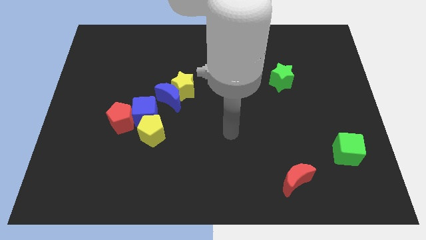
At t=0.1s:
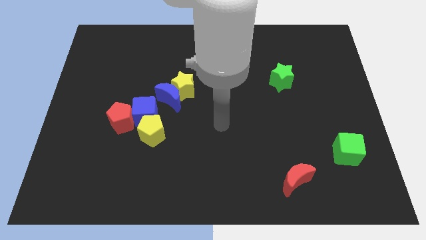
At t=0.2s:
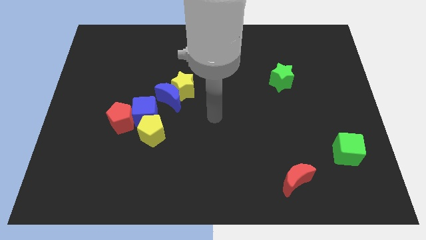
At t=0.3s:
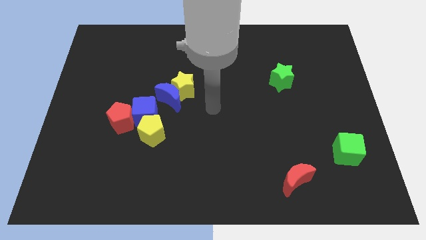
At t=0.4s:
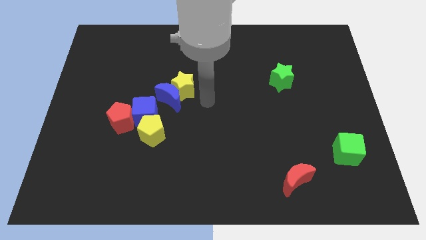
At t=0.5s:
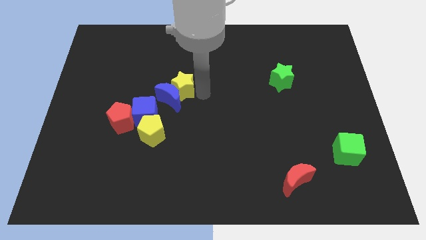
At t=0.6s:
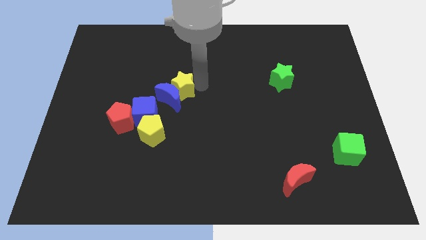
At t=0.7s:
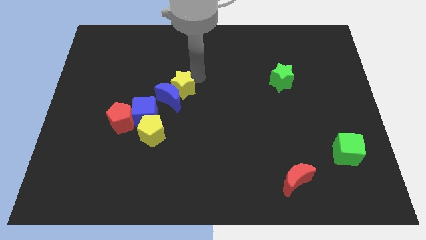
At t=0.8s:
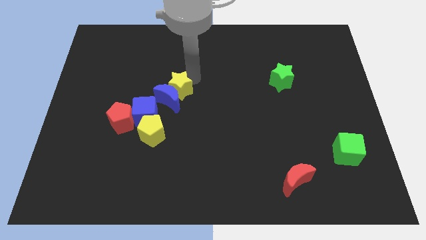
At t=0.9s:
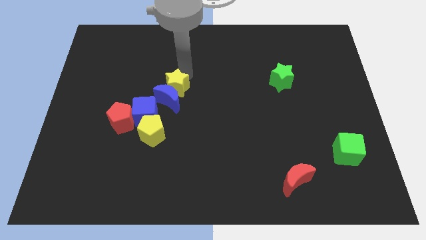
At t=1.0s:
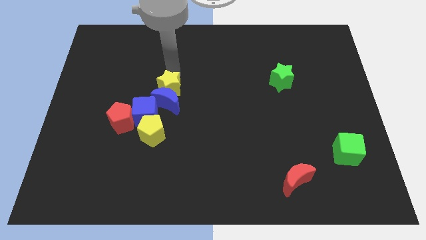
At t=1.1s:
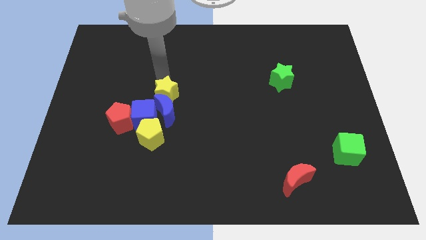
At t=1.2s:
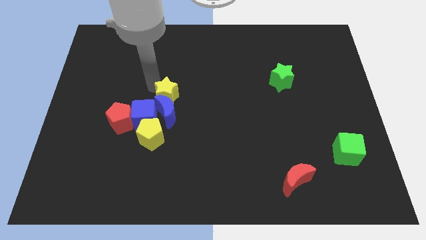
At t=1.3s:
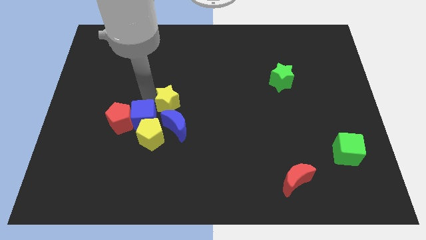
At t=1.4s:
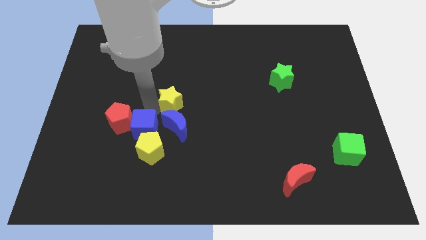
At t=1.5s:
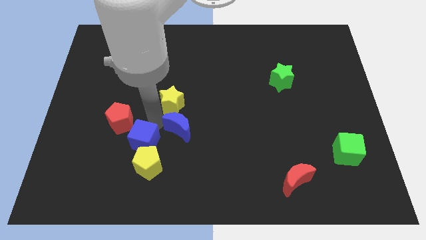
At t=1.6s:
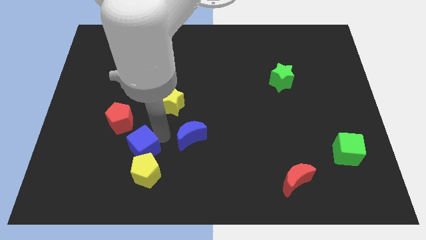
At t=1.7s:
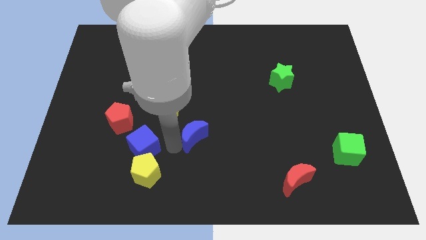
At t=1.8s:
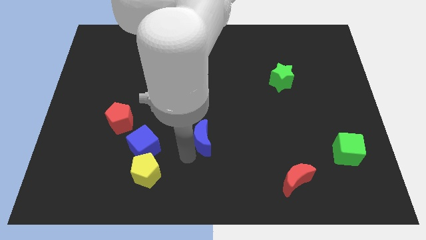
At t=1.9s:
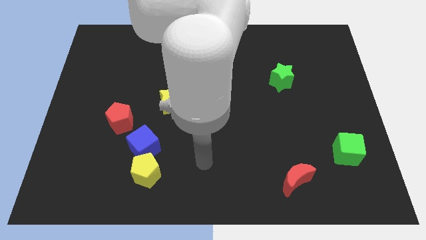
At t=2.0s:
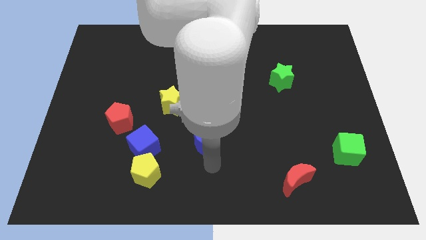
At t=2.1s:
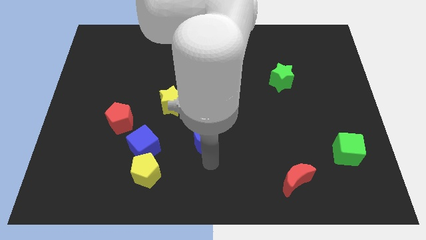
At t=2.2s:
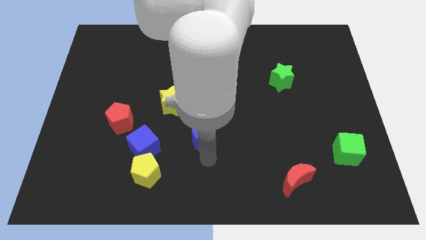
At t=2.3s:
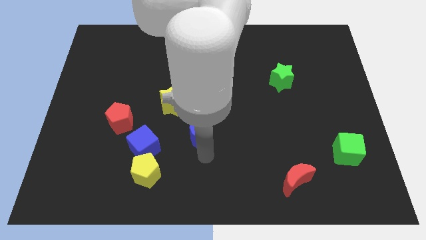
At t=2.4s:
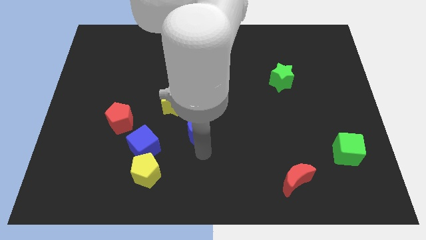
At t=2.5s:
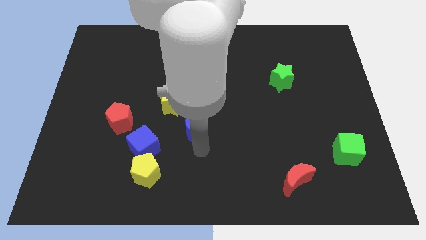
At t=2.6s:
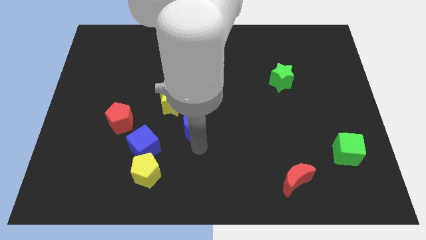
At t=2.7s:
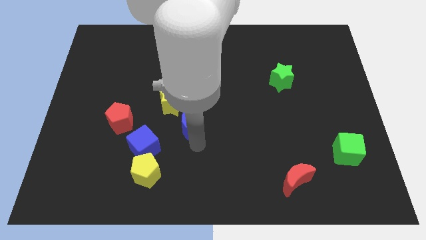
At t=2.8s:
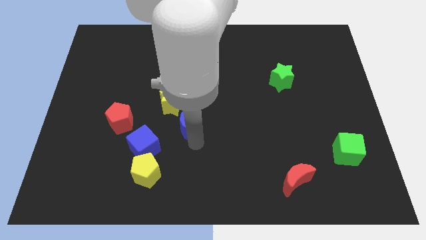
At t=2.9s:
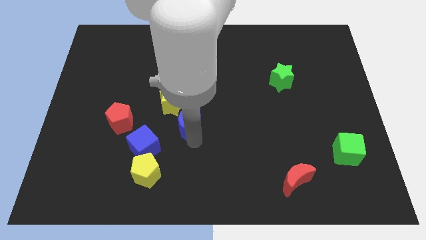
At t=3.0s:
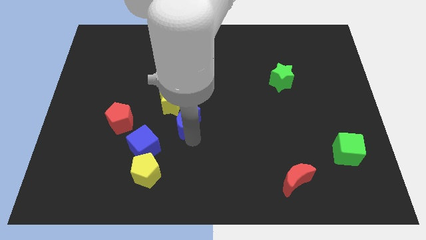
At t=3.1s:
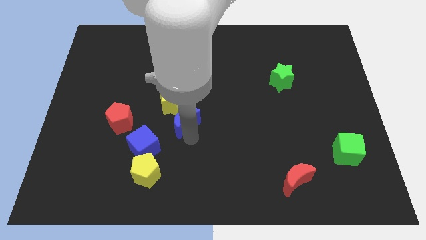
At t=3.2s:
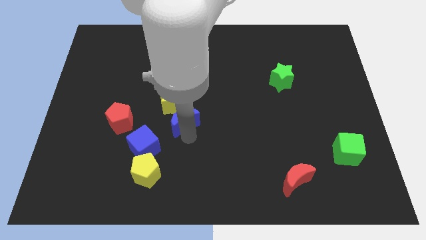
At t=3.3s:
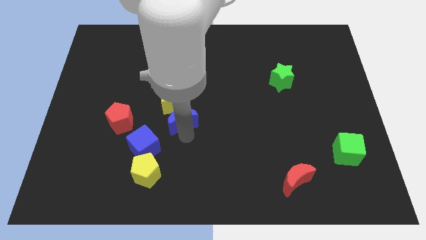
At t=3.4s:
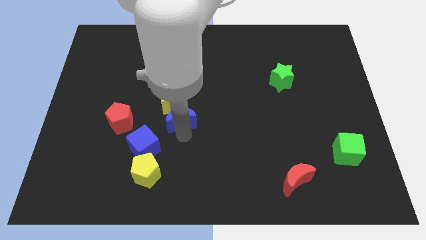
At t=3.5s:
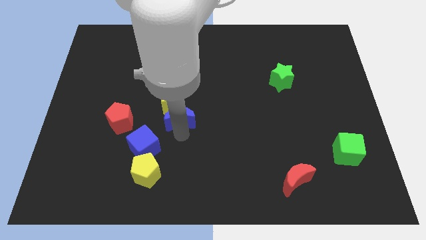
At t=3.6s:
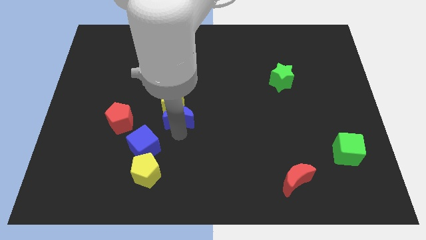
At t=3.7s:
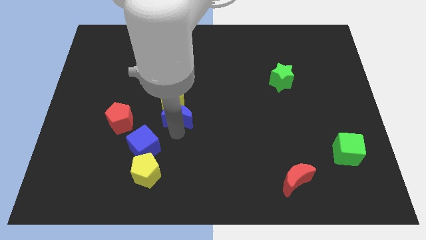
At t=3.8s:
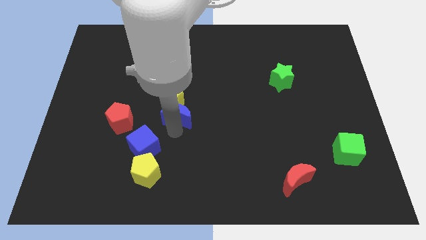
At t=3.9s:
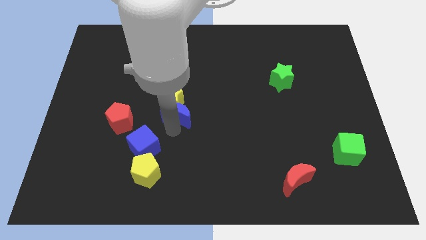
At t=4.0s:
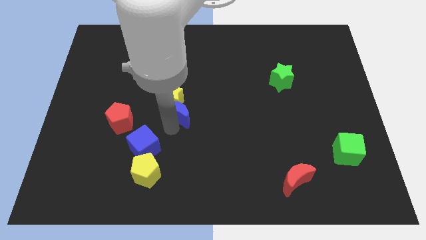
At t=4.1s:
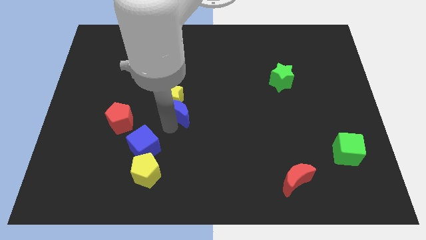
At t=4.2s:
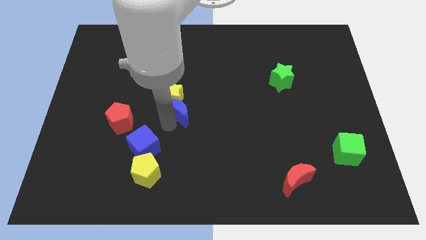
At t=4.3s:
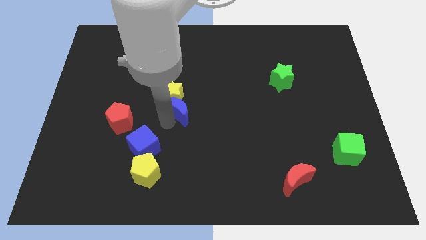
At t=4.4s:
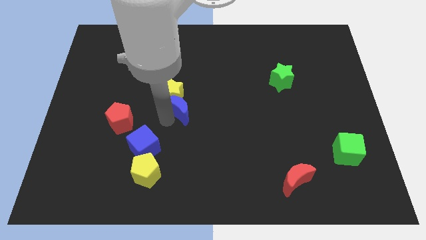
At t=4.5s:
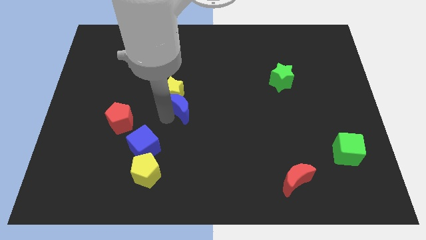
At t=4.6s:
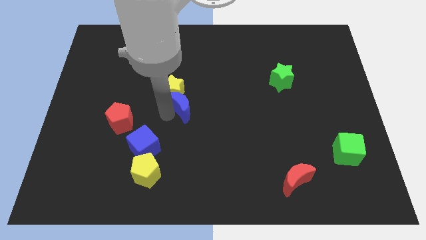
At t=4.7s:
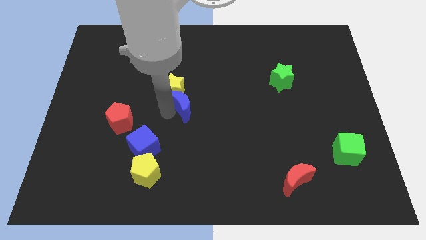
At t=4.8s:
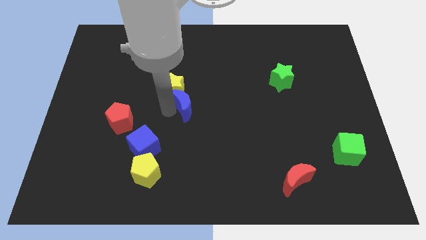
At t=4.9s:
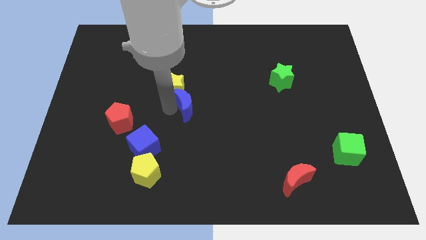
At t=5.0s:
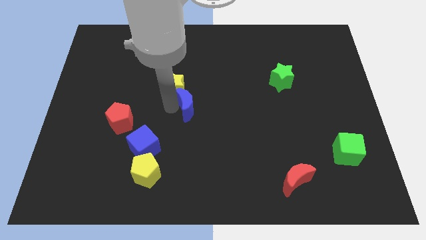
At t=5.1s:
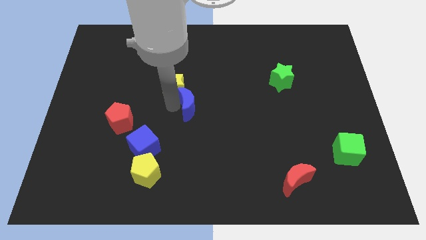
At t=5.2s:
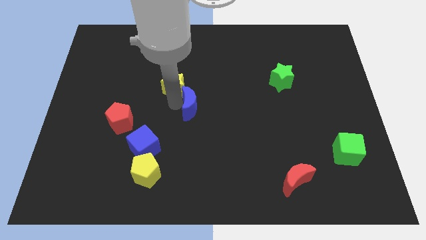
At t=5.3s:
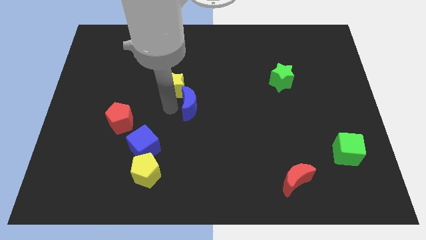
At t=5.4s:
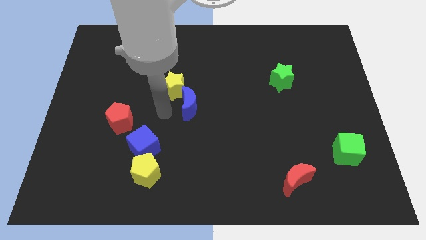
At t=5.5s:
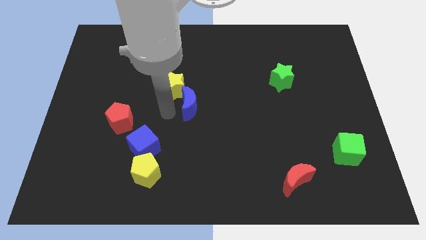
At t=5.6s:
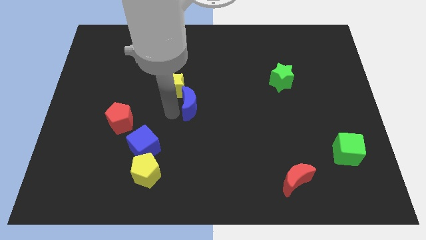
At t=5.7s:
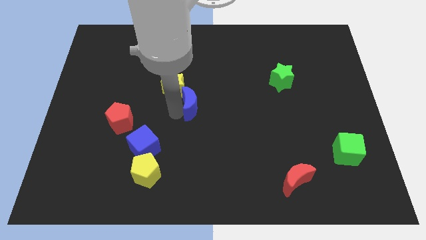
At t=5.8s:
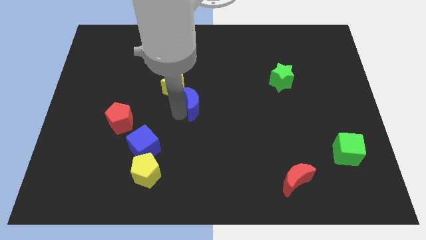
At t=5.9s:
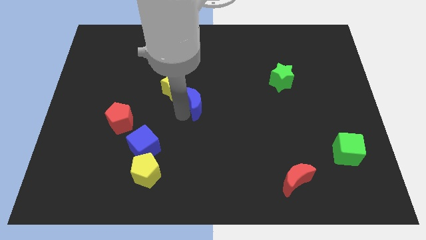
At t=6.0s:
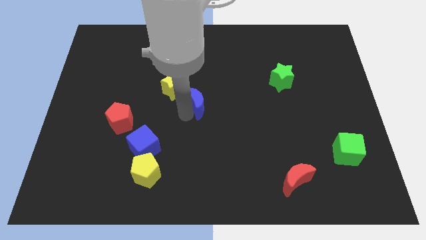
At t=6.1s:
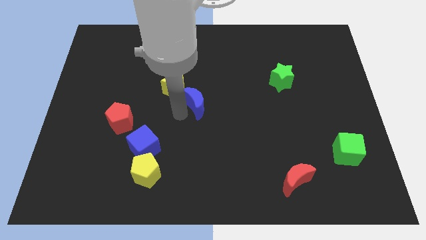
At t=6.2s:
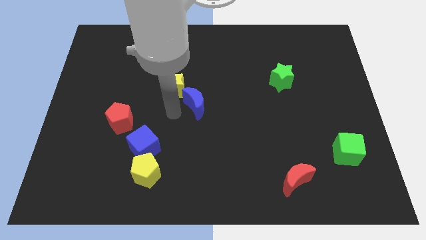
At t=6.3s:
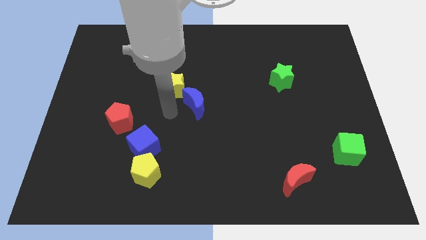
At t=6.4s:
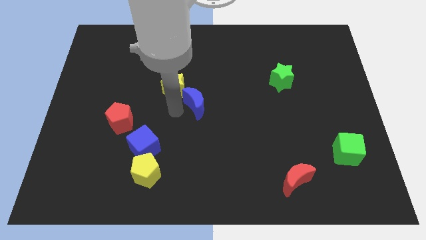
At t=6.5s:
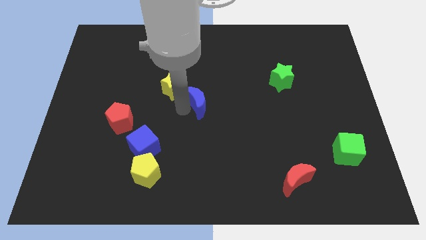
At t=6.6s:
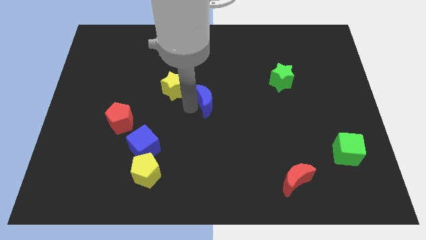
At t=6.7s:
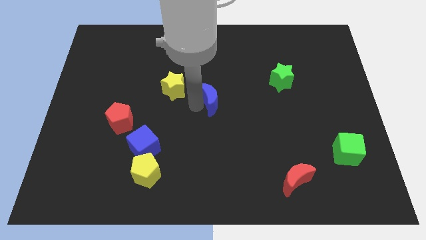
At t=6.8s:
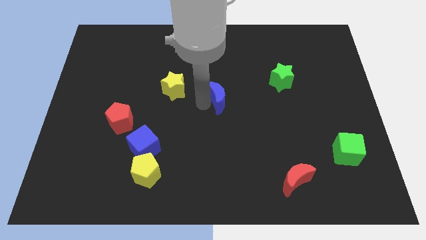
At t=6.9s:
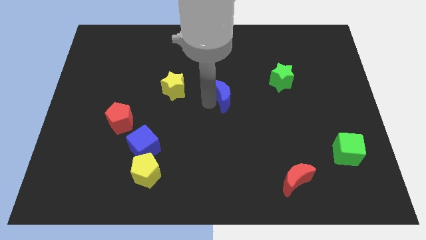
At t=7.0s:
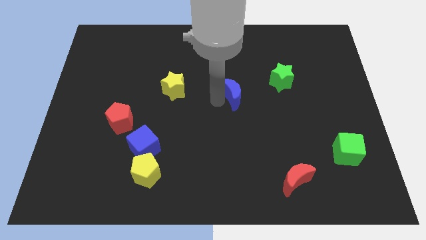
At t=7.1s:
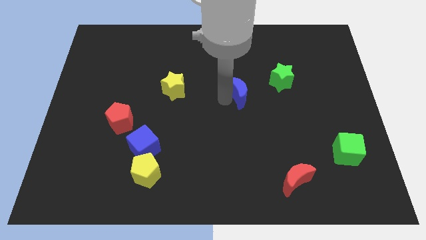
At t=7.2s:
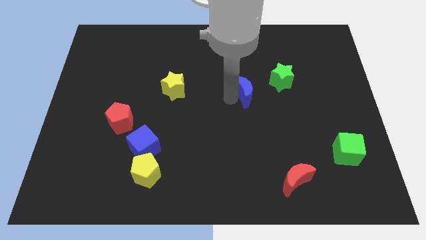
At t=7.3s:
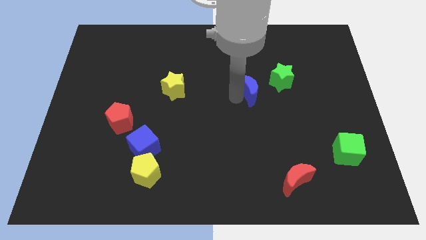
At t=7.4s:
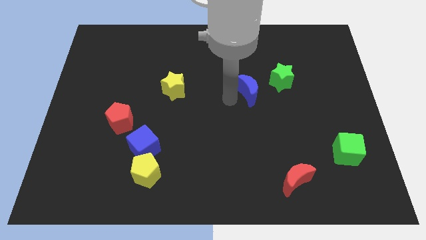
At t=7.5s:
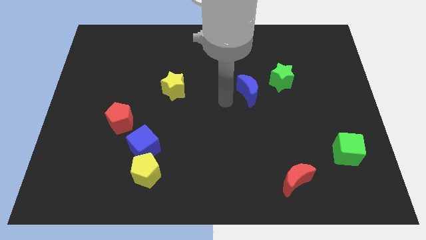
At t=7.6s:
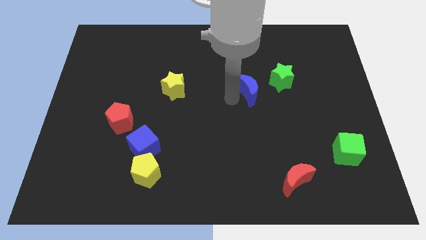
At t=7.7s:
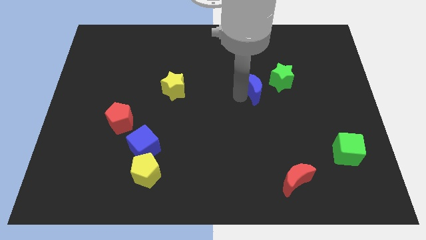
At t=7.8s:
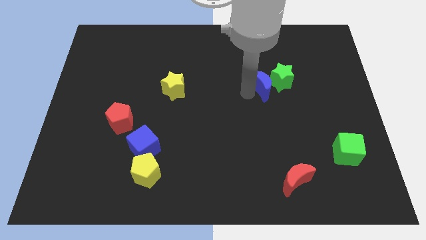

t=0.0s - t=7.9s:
slide the blue moon close to the green star
